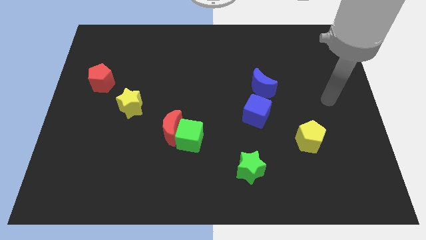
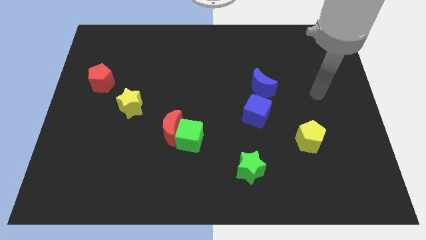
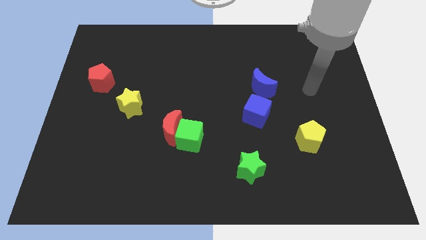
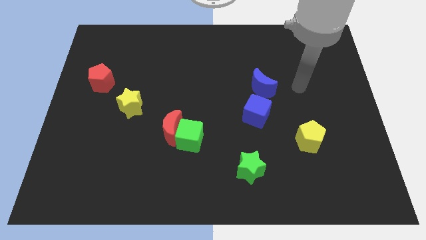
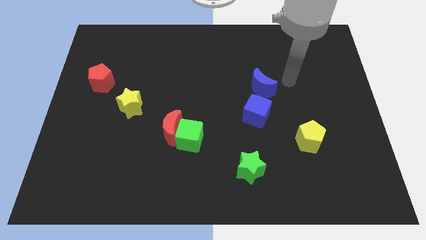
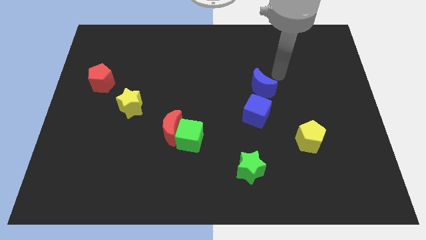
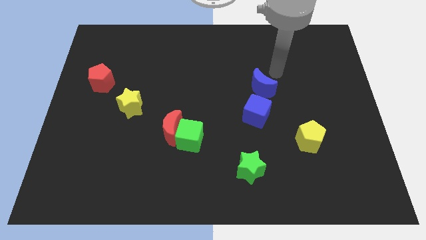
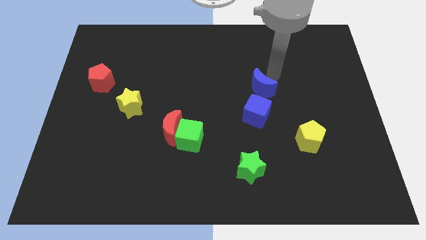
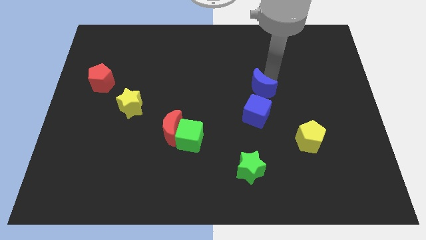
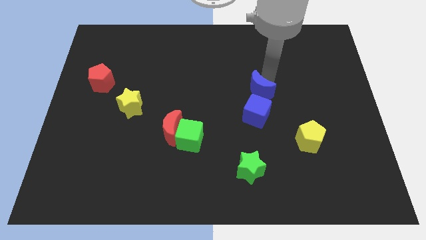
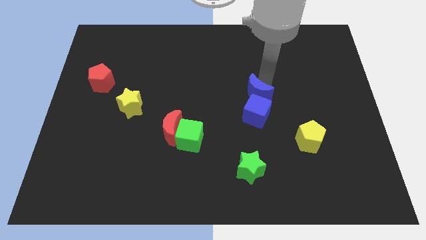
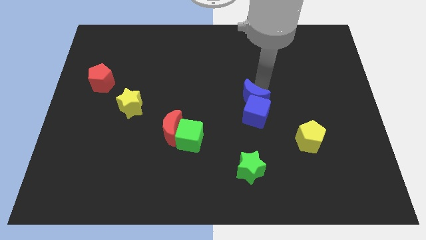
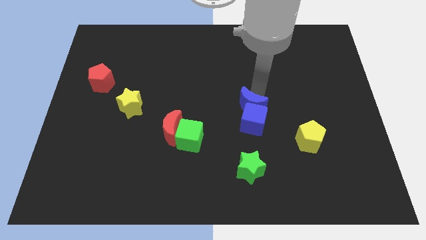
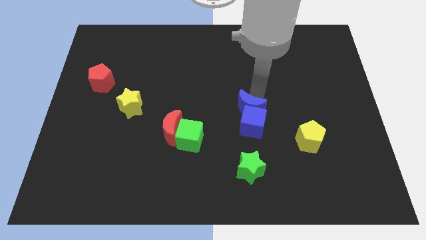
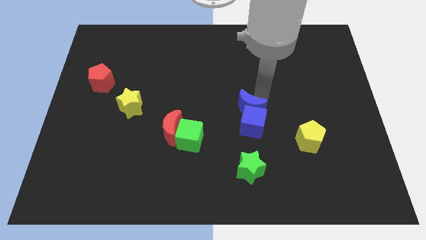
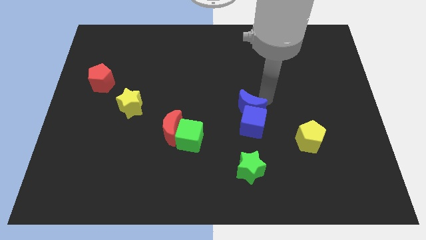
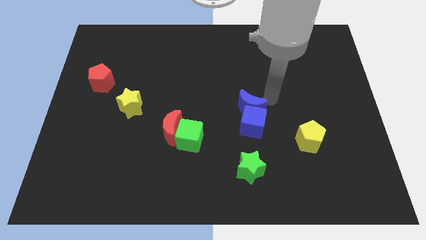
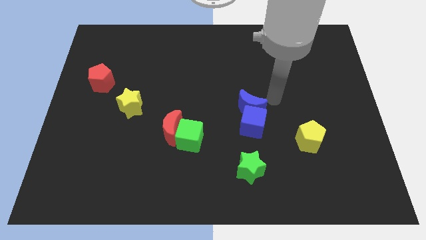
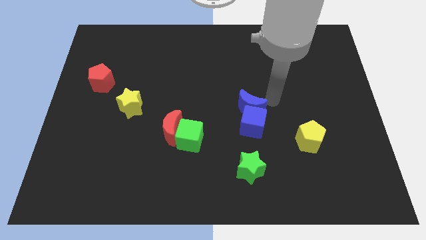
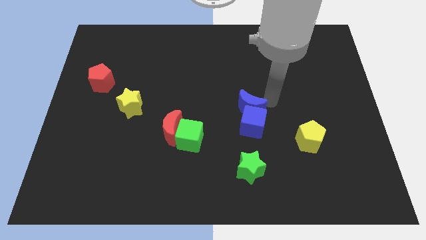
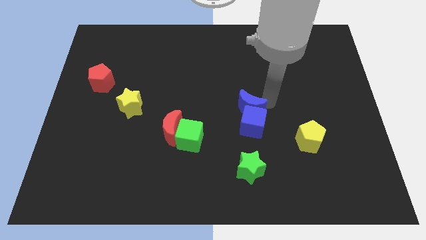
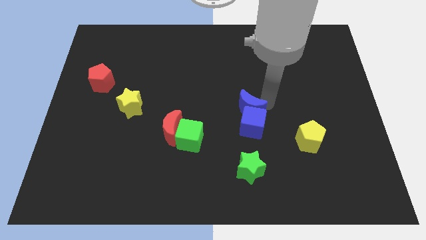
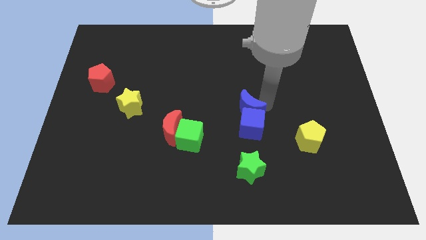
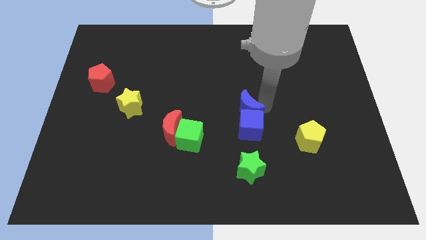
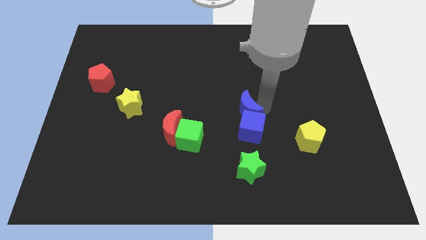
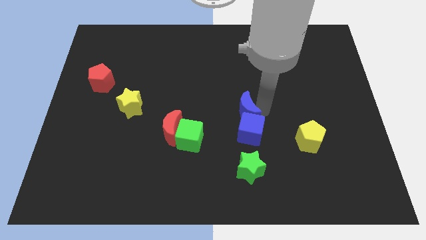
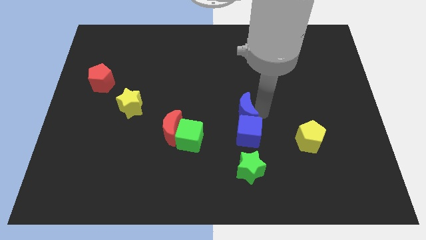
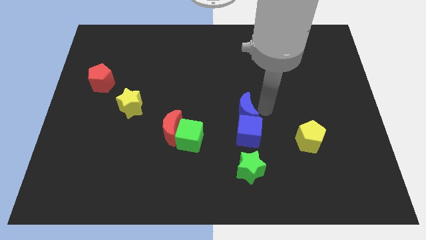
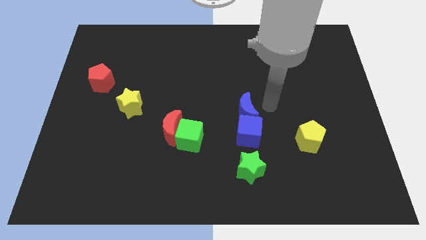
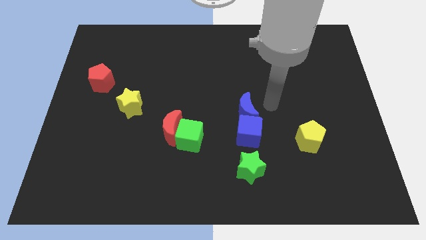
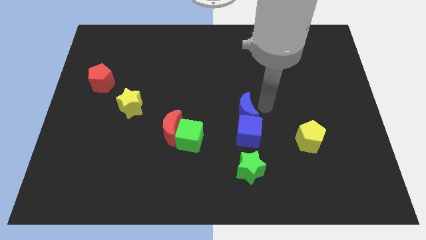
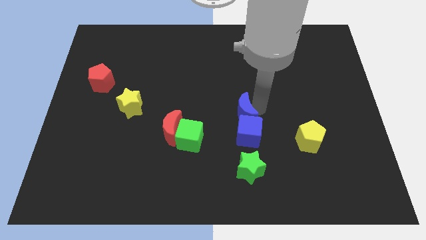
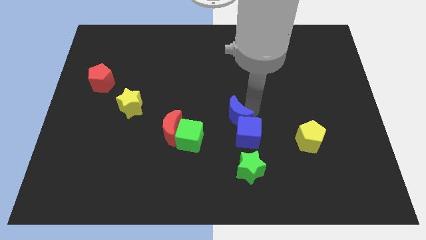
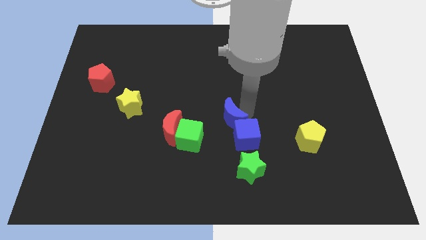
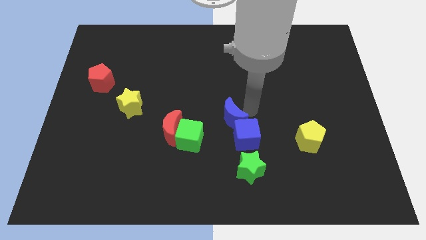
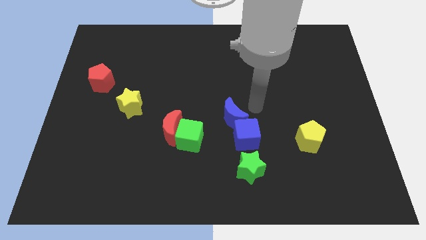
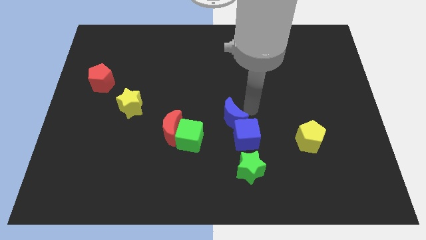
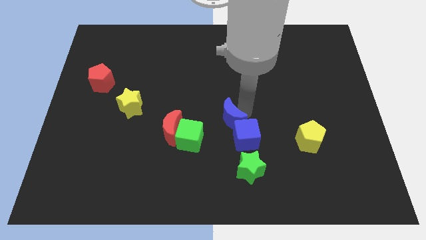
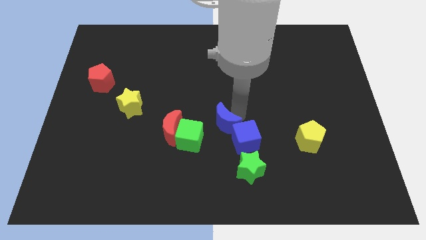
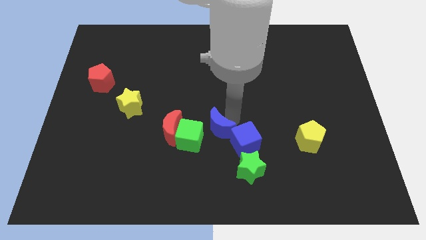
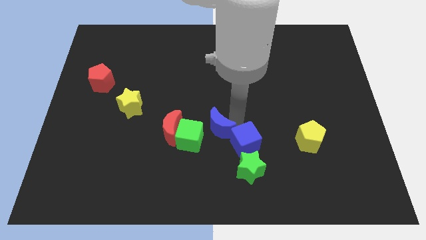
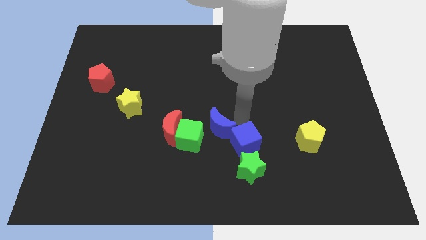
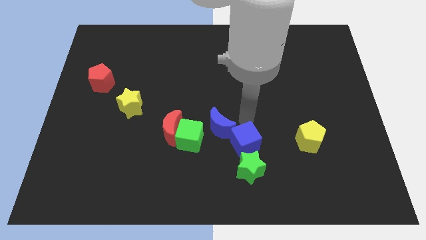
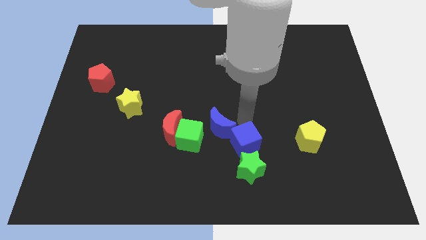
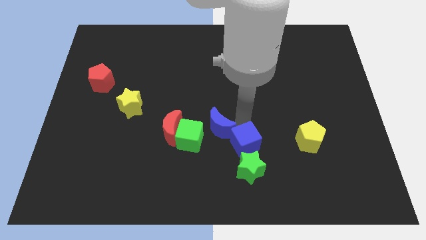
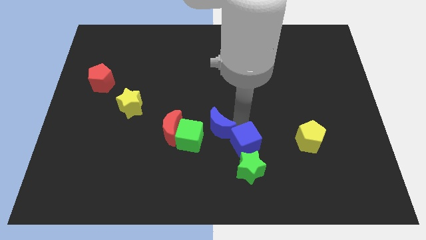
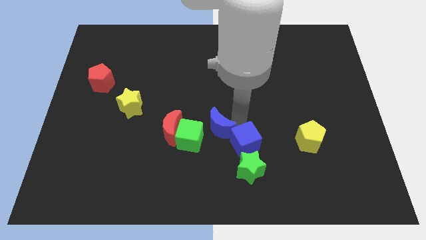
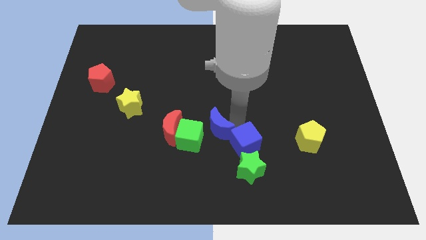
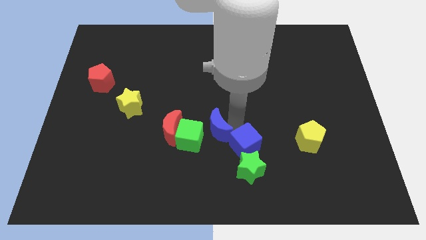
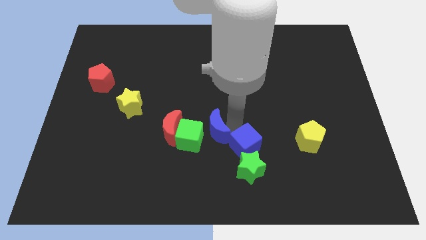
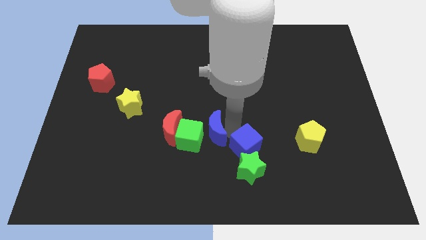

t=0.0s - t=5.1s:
put the blue moon towards the green cube

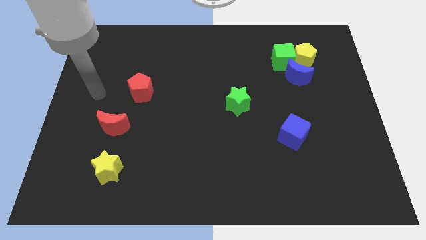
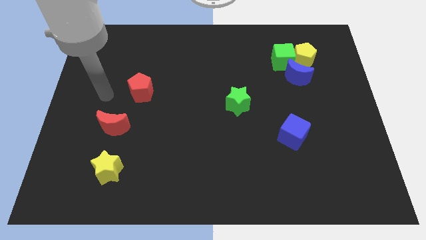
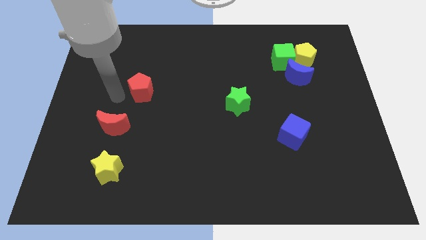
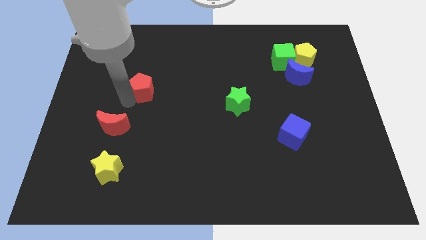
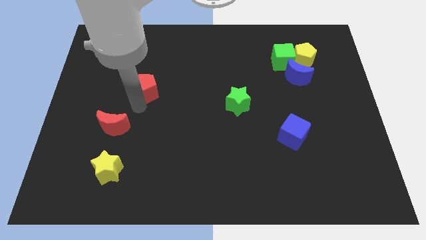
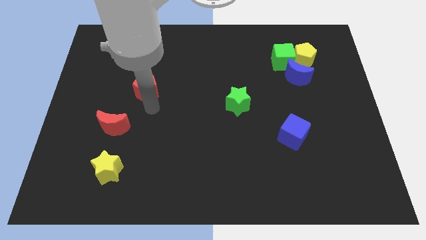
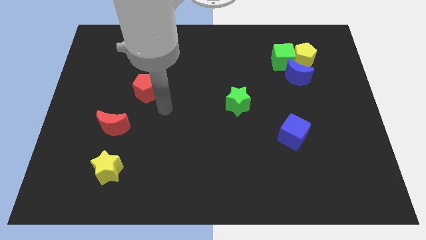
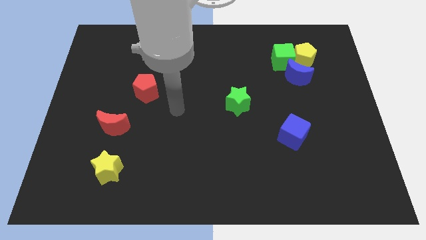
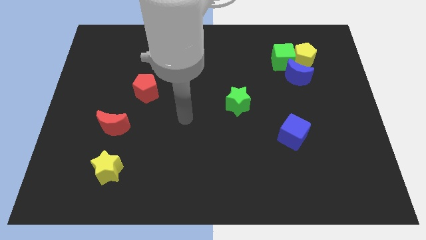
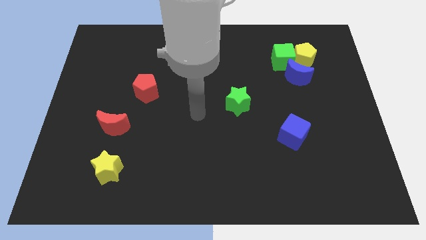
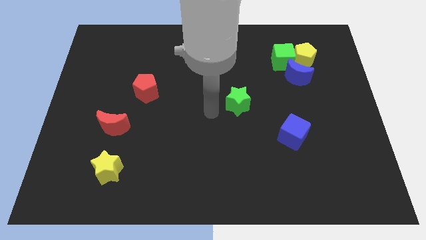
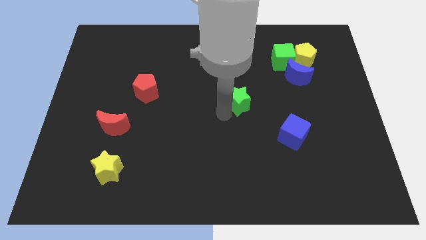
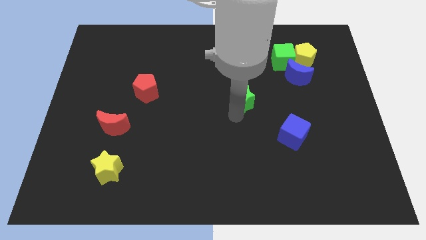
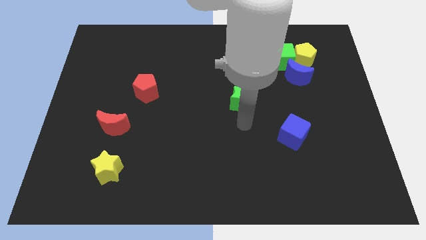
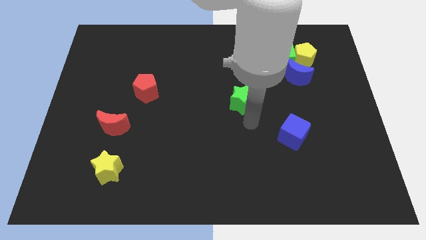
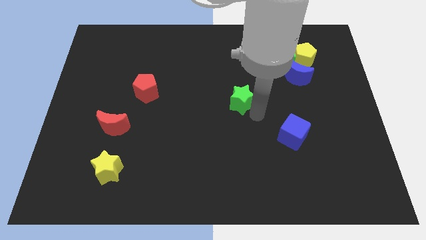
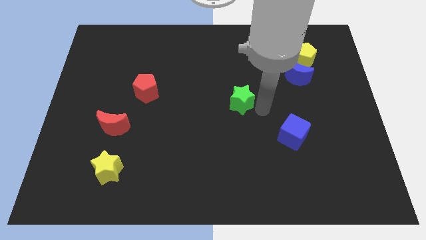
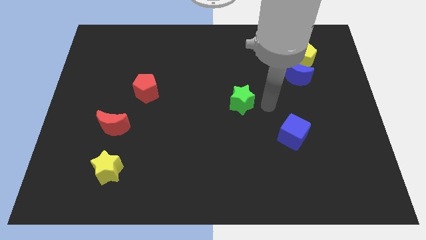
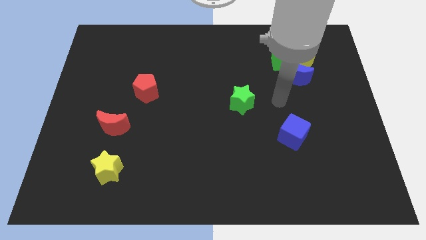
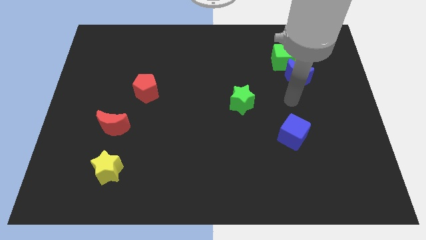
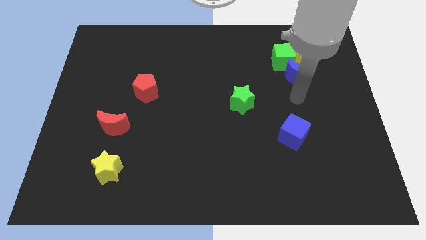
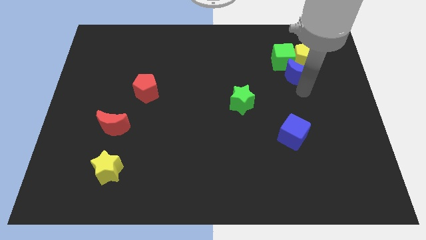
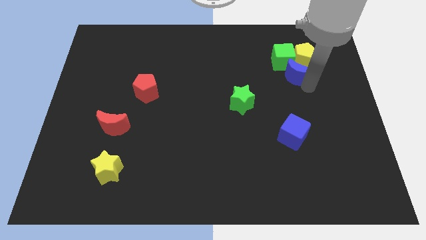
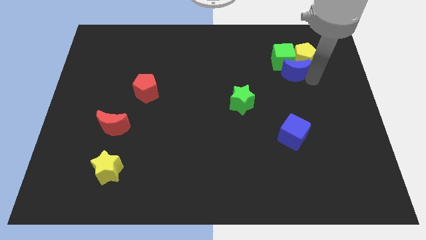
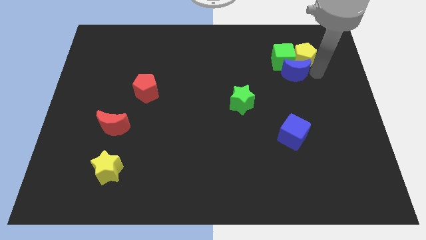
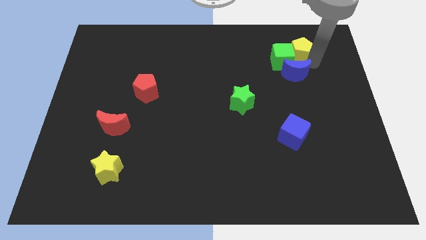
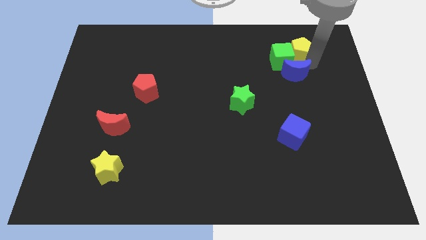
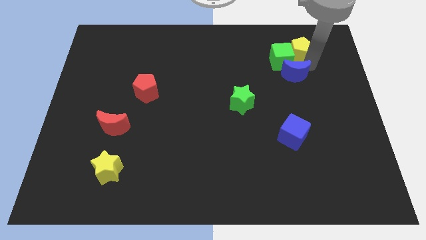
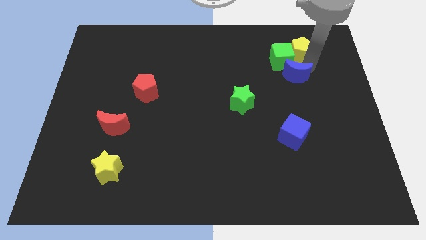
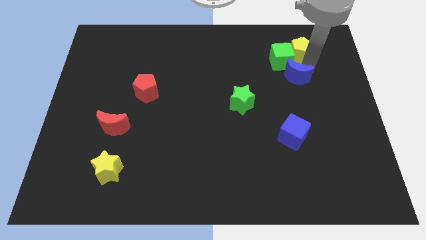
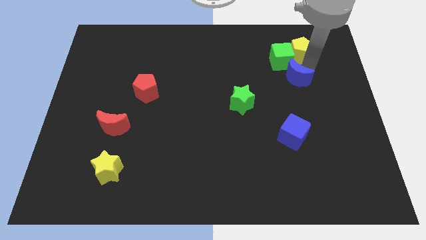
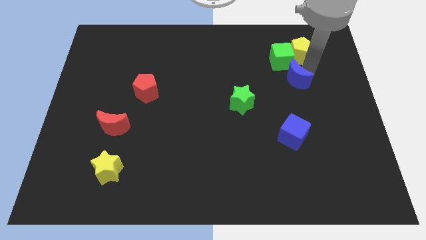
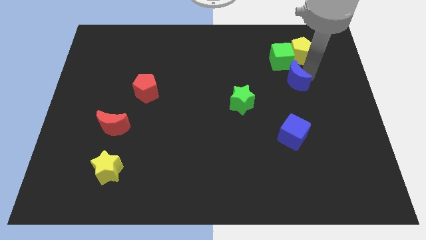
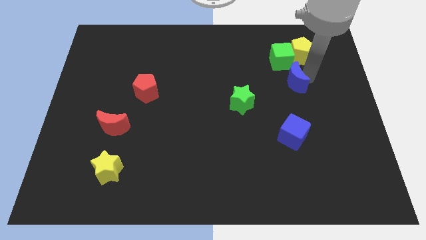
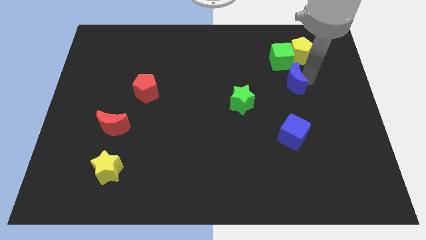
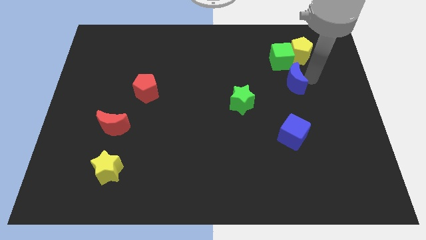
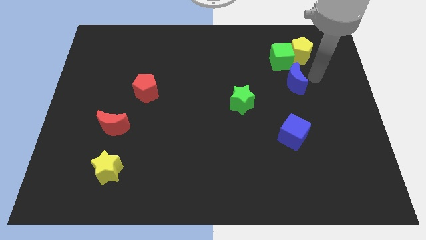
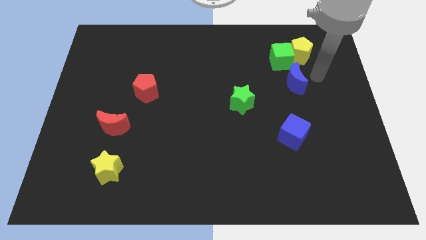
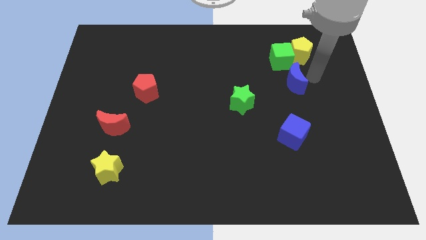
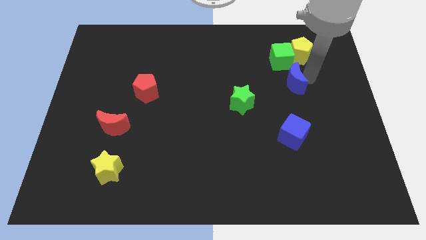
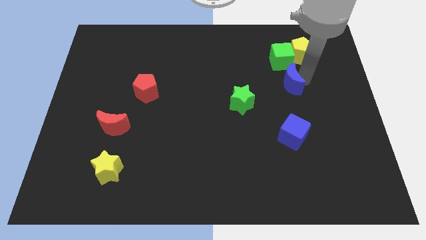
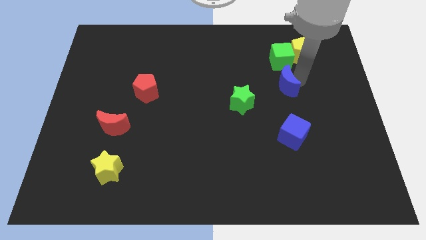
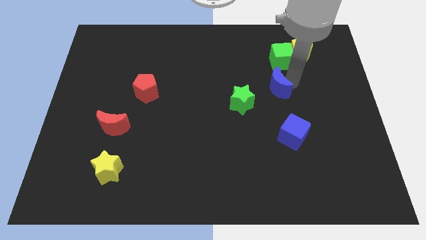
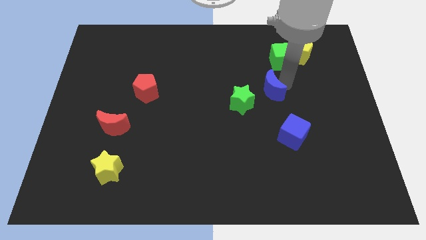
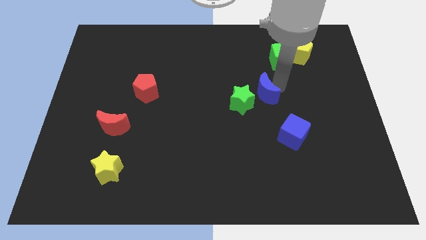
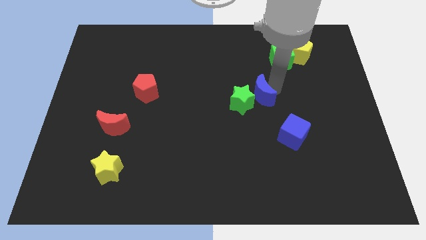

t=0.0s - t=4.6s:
move the blue moon close to the green star
